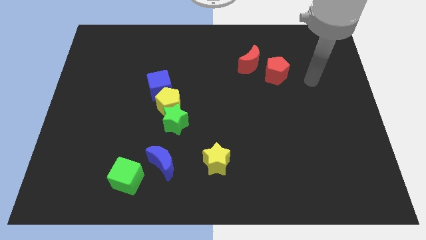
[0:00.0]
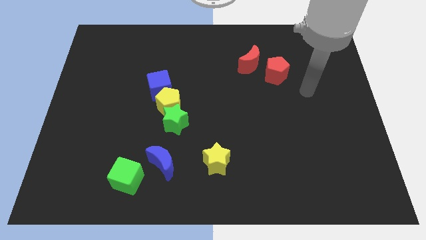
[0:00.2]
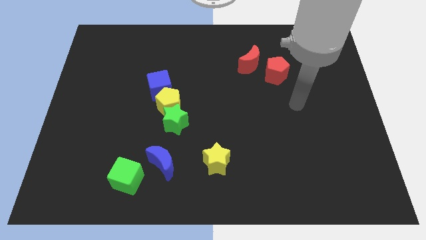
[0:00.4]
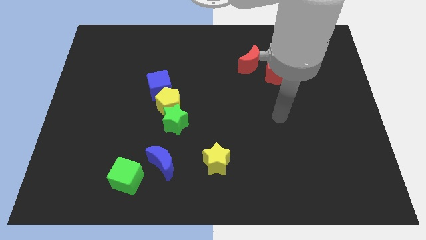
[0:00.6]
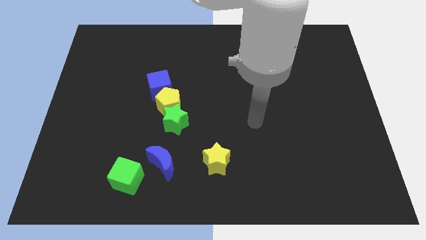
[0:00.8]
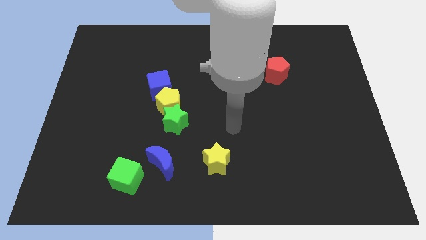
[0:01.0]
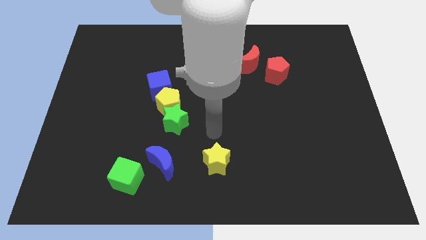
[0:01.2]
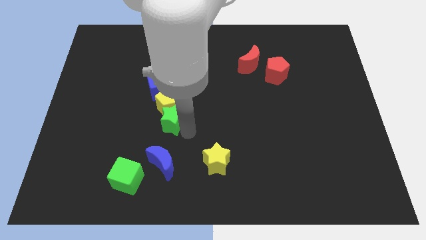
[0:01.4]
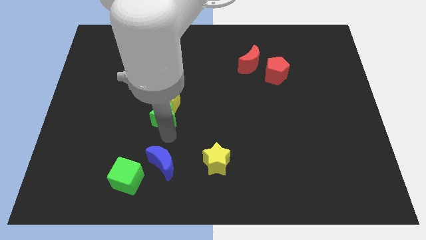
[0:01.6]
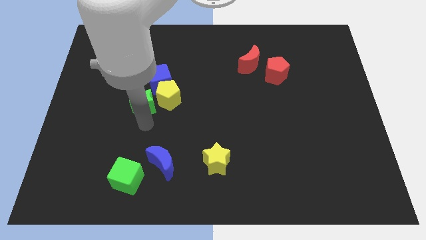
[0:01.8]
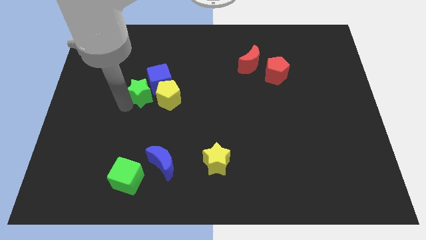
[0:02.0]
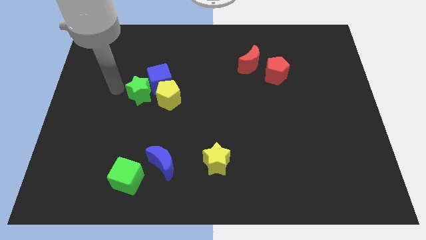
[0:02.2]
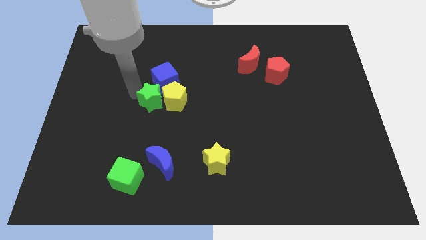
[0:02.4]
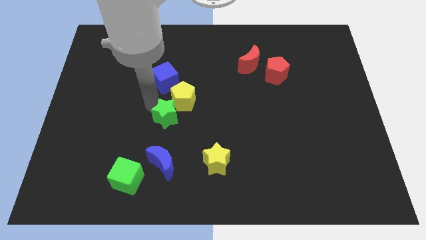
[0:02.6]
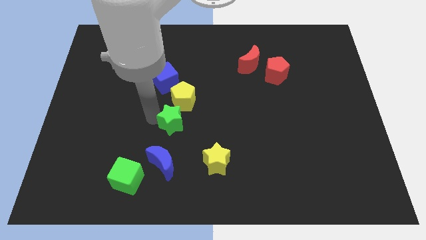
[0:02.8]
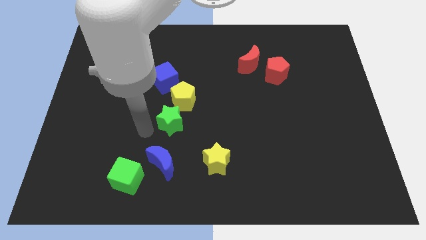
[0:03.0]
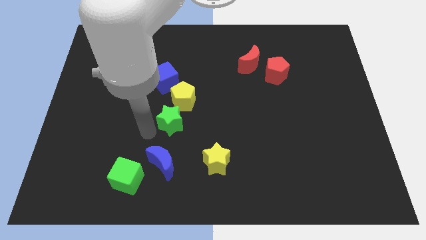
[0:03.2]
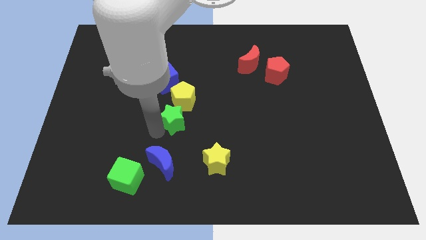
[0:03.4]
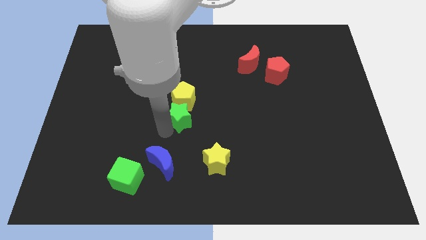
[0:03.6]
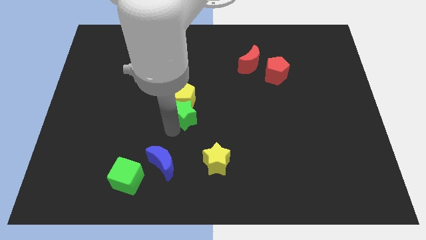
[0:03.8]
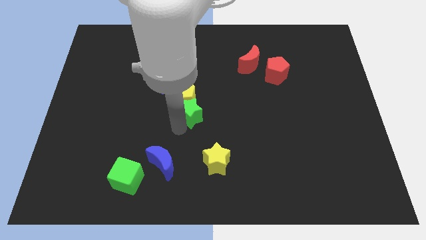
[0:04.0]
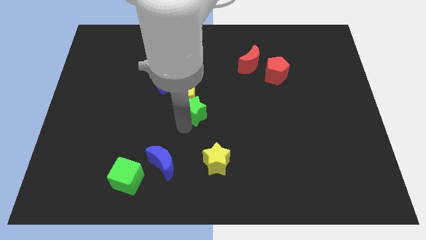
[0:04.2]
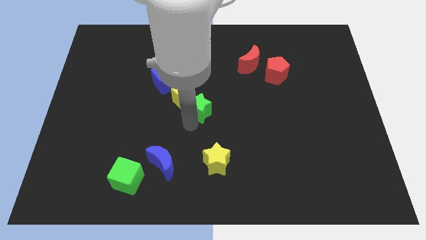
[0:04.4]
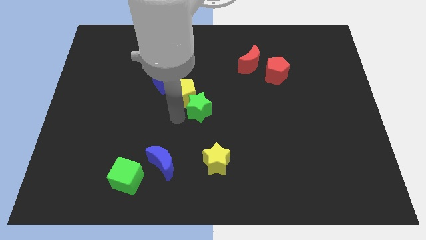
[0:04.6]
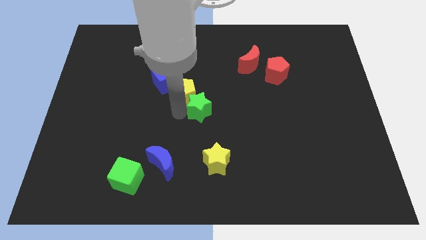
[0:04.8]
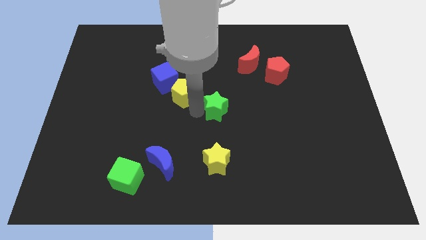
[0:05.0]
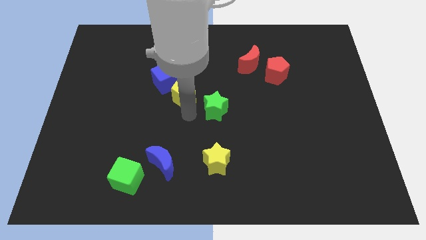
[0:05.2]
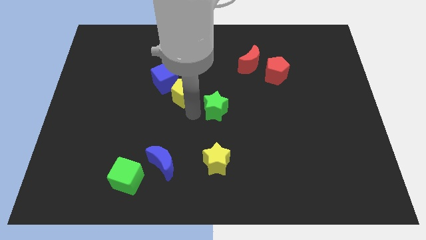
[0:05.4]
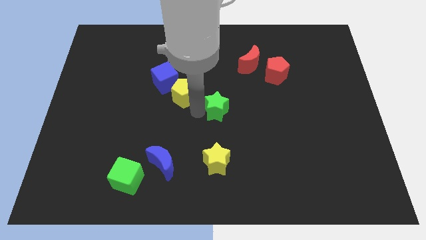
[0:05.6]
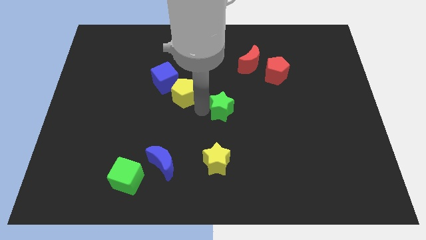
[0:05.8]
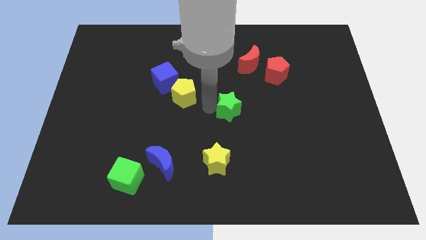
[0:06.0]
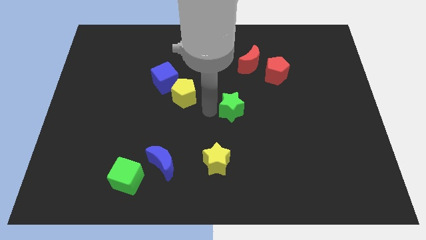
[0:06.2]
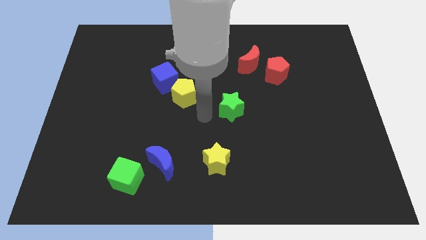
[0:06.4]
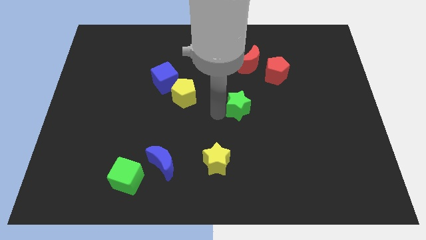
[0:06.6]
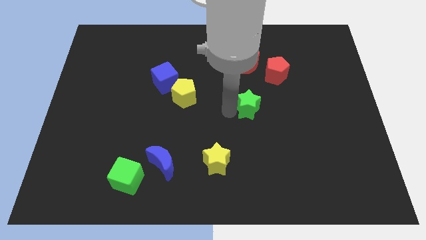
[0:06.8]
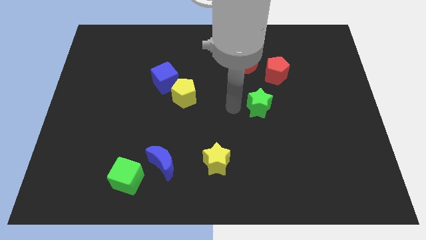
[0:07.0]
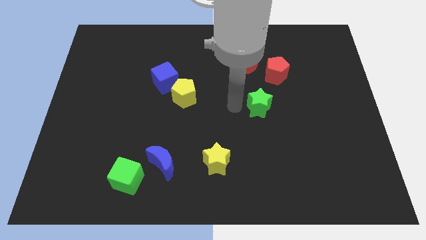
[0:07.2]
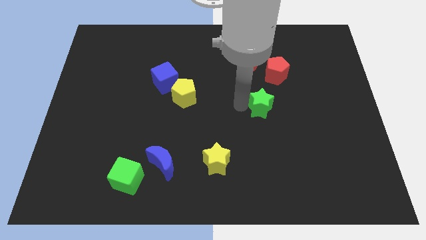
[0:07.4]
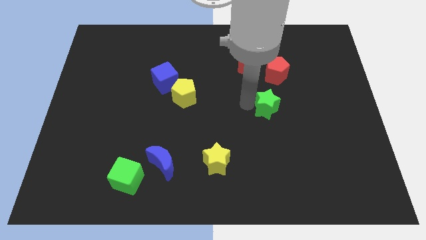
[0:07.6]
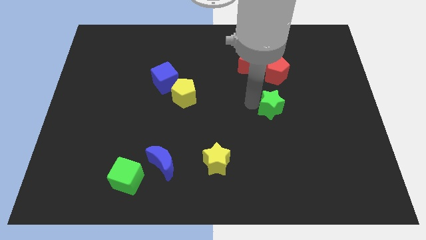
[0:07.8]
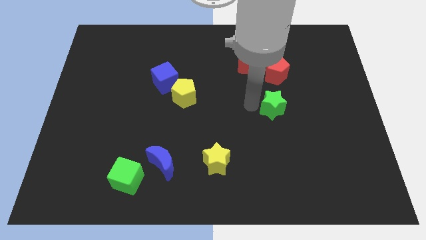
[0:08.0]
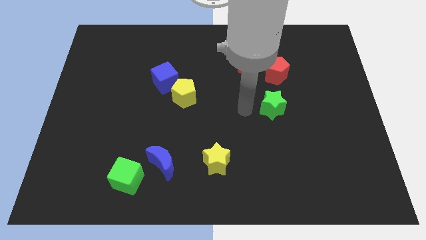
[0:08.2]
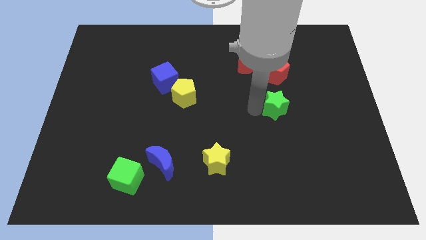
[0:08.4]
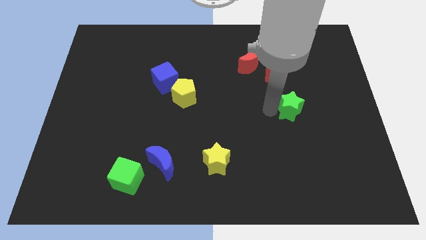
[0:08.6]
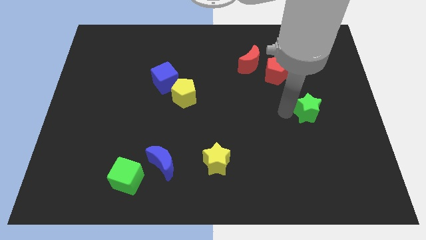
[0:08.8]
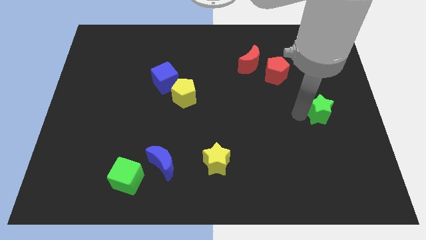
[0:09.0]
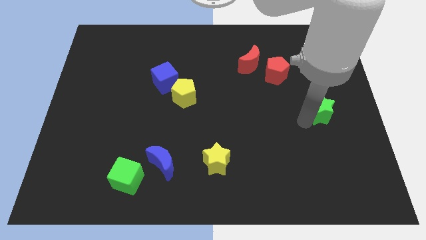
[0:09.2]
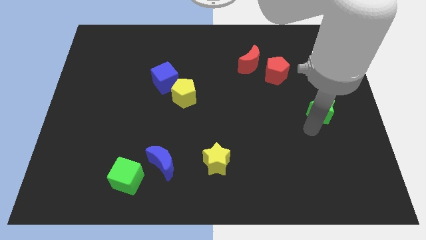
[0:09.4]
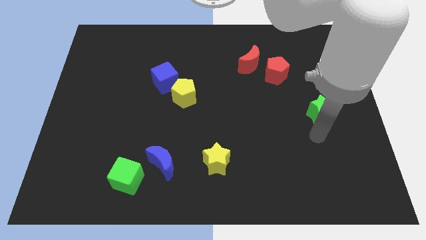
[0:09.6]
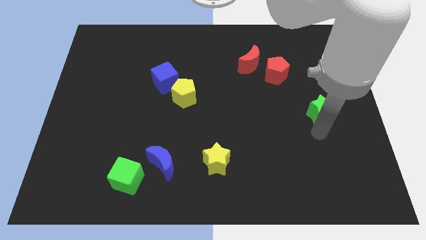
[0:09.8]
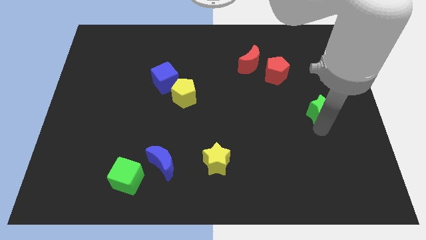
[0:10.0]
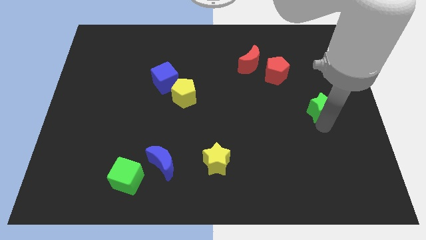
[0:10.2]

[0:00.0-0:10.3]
move the green star to the right side of the board
